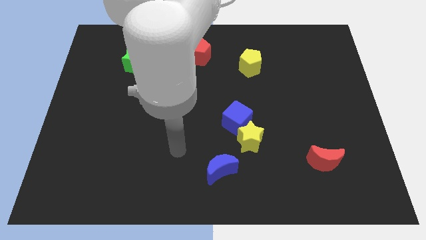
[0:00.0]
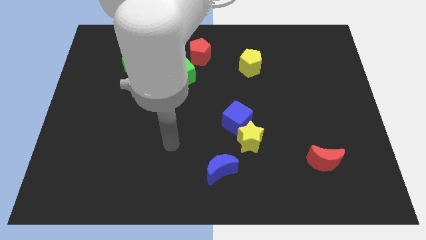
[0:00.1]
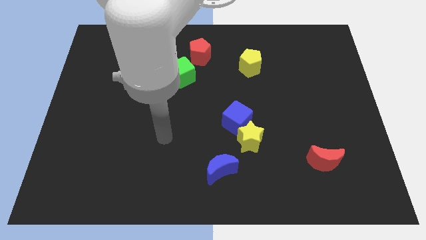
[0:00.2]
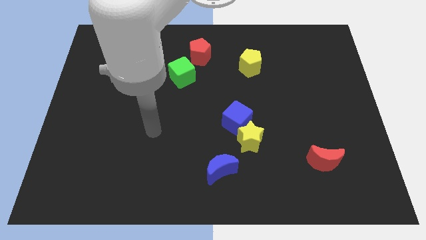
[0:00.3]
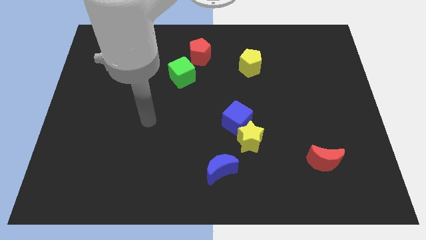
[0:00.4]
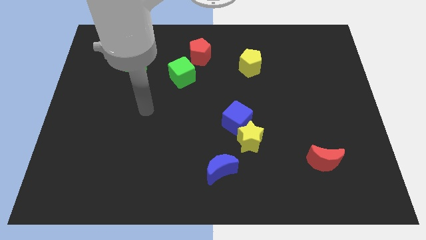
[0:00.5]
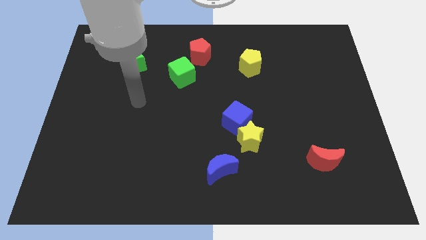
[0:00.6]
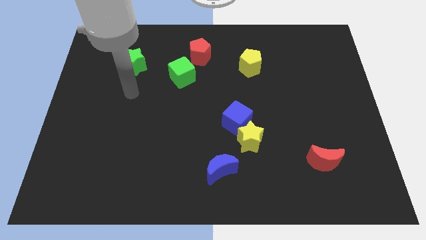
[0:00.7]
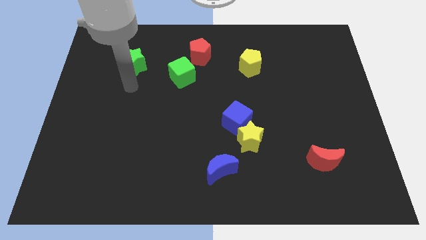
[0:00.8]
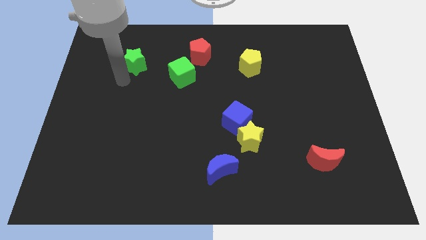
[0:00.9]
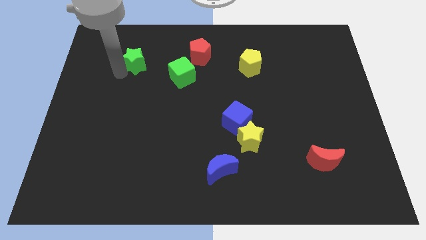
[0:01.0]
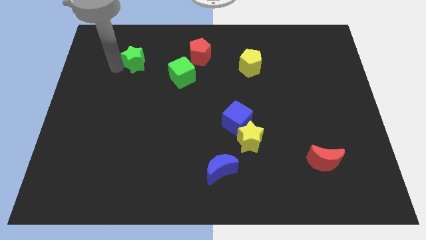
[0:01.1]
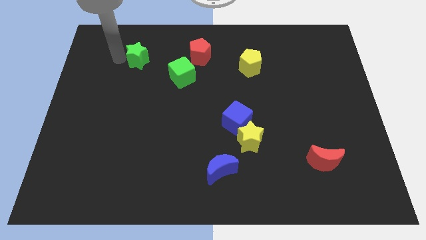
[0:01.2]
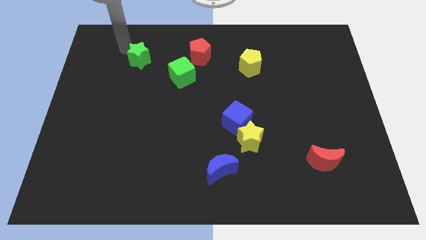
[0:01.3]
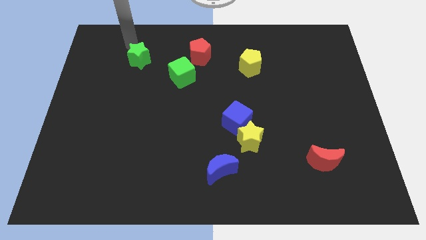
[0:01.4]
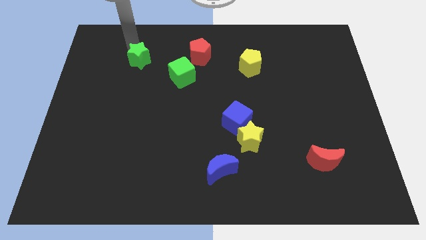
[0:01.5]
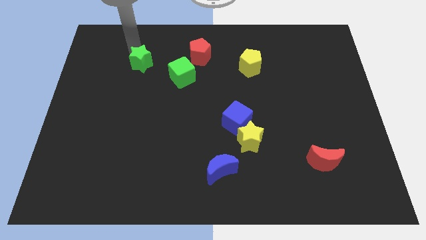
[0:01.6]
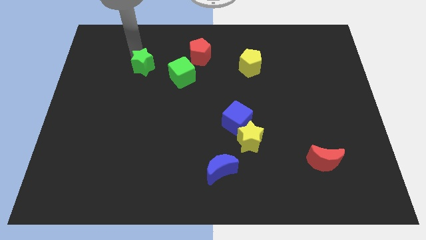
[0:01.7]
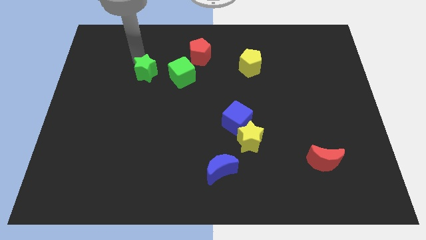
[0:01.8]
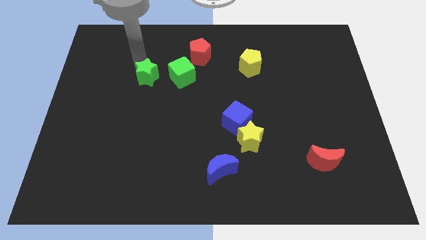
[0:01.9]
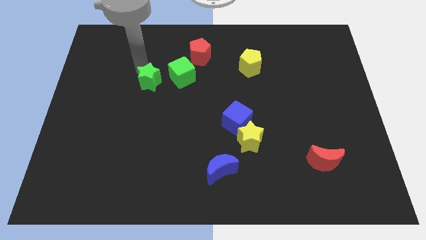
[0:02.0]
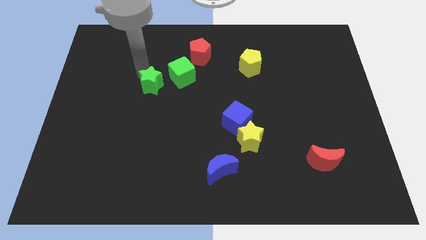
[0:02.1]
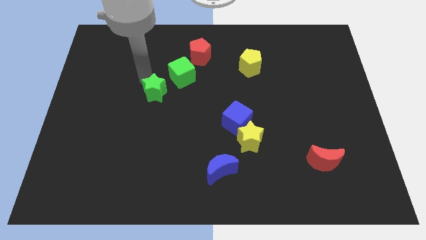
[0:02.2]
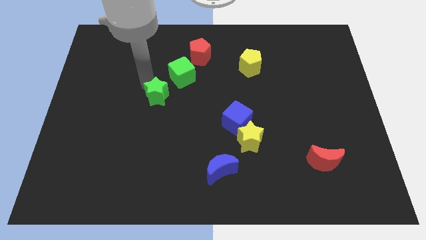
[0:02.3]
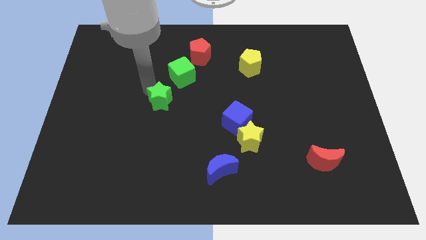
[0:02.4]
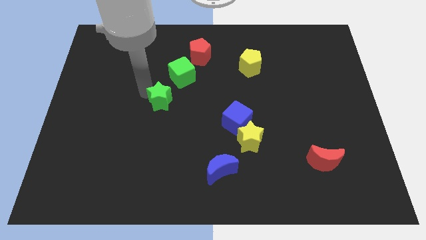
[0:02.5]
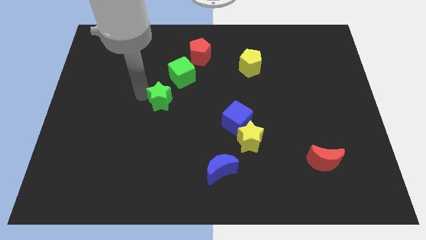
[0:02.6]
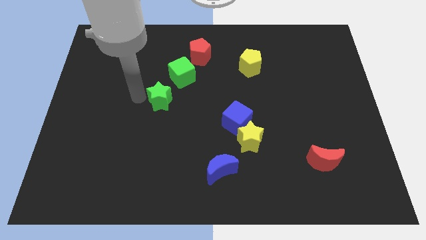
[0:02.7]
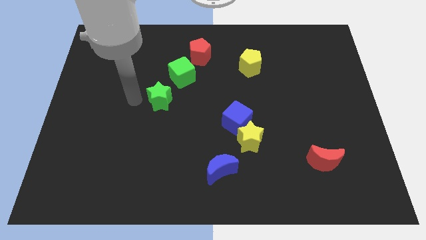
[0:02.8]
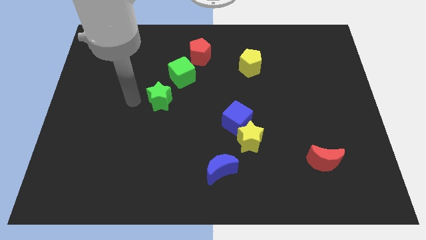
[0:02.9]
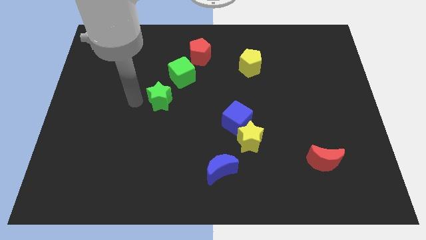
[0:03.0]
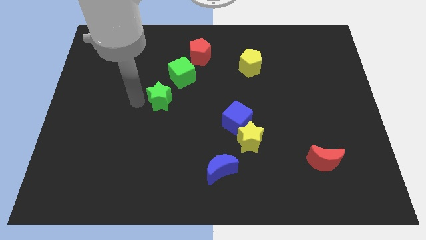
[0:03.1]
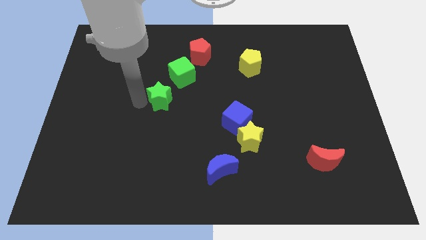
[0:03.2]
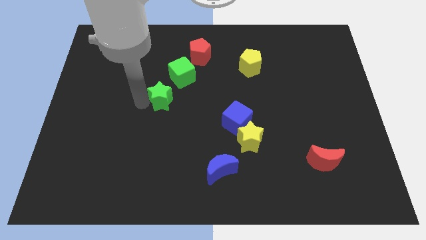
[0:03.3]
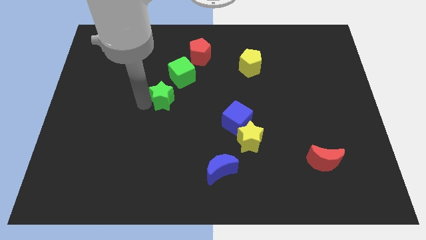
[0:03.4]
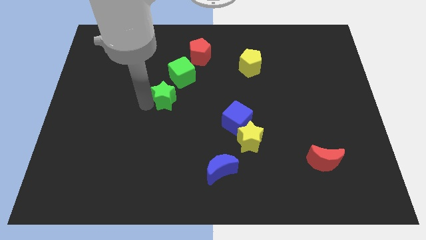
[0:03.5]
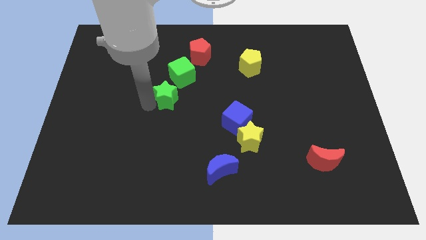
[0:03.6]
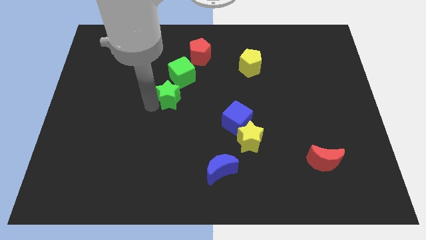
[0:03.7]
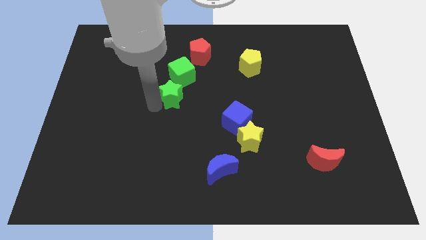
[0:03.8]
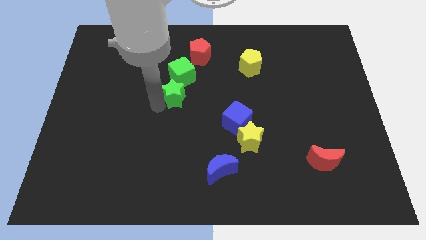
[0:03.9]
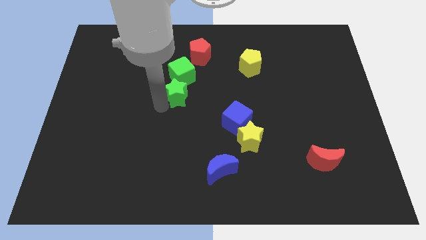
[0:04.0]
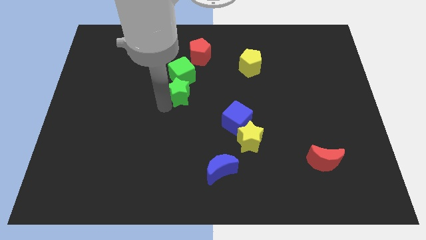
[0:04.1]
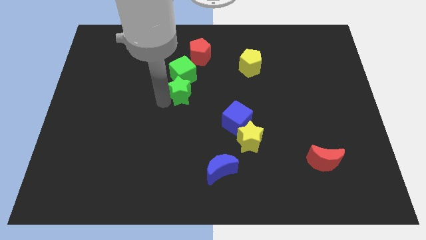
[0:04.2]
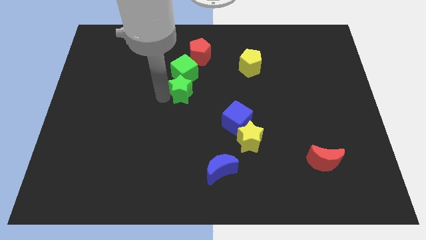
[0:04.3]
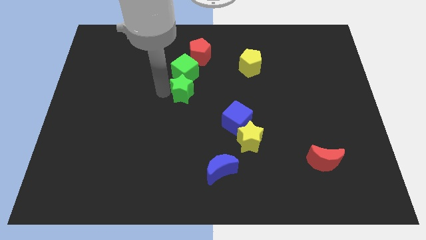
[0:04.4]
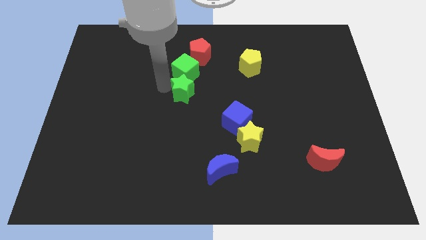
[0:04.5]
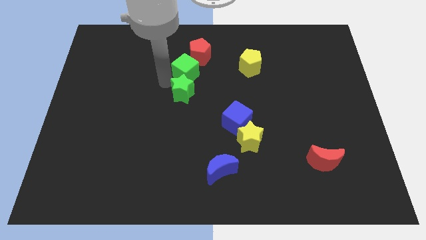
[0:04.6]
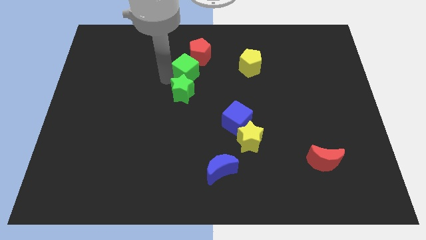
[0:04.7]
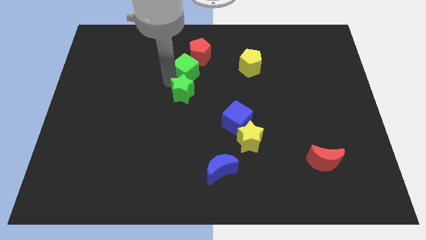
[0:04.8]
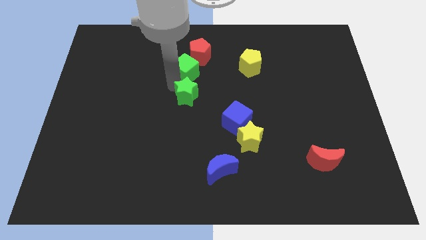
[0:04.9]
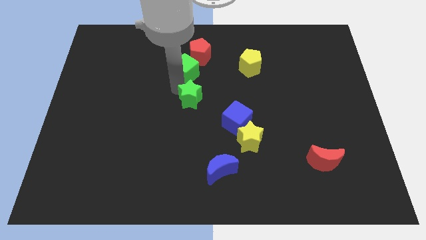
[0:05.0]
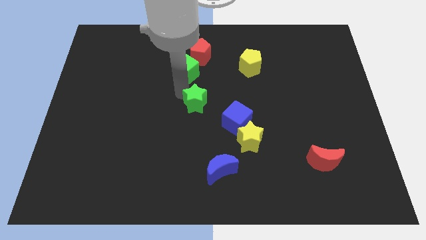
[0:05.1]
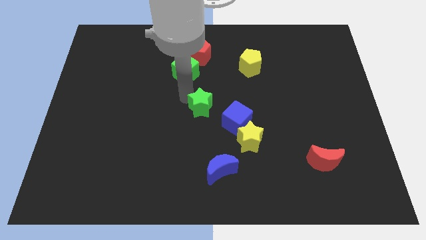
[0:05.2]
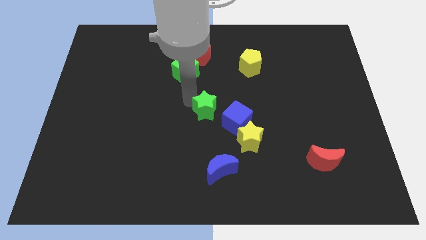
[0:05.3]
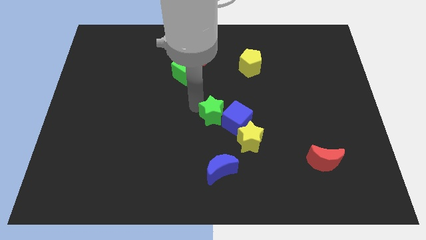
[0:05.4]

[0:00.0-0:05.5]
slide the green star towards the blue cube

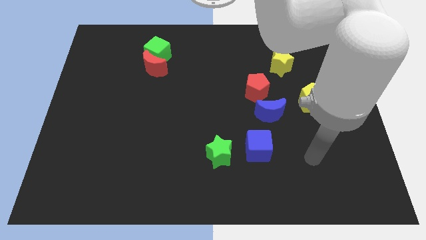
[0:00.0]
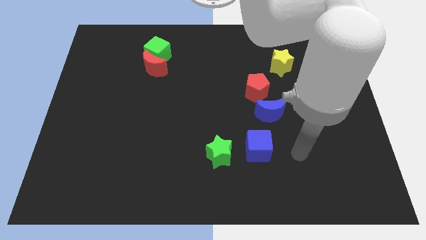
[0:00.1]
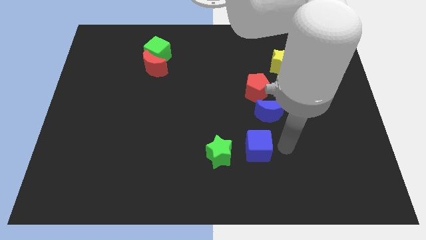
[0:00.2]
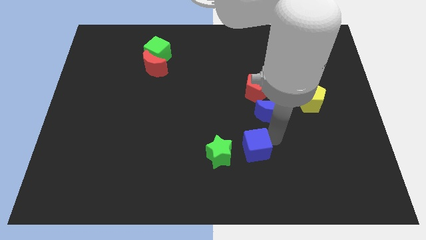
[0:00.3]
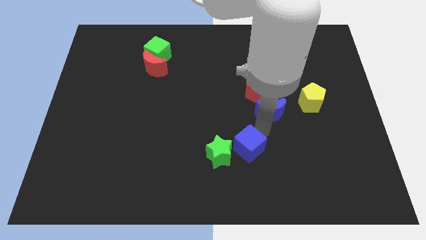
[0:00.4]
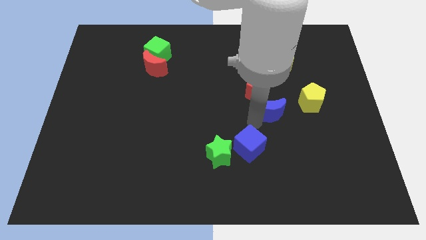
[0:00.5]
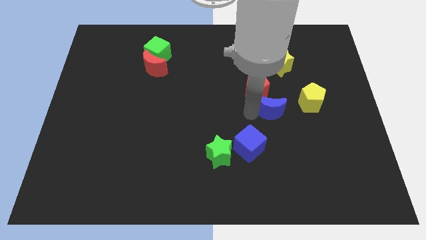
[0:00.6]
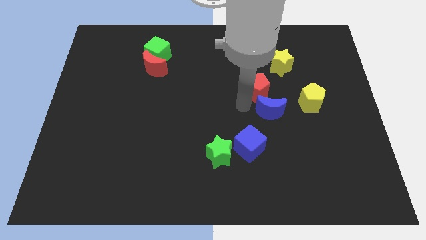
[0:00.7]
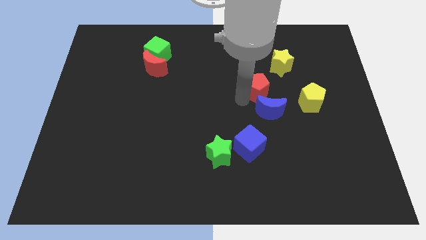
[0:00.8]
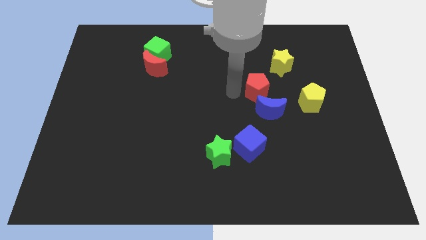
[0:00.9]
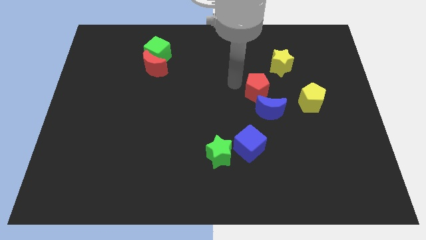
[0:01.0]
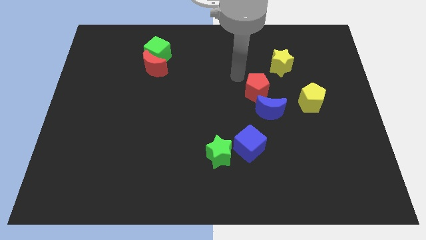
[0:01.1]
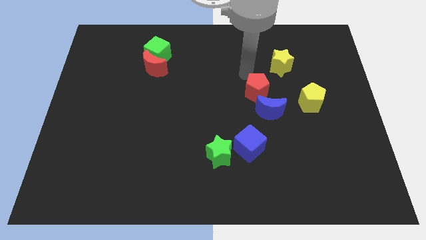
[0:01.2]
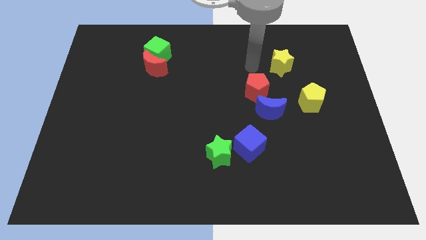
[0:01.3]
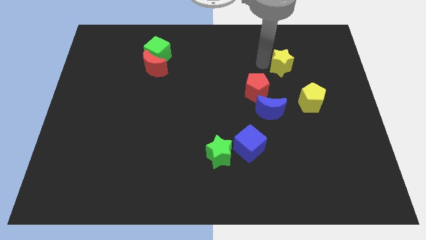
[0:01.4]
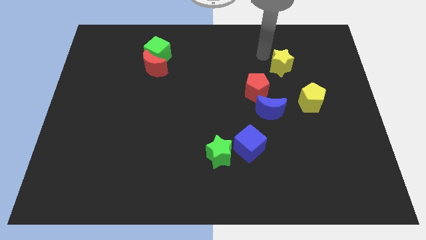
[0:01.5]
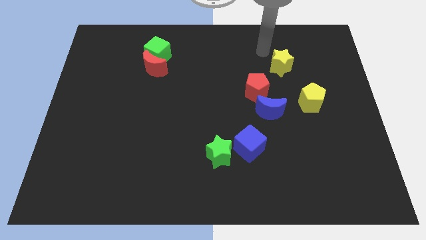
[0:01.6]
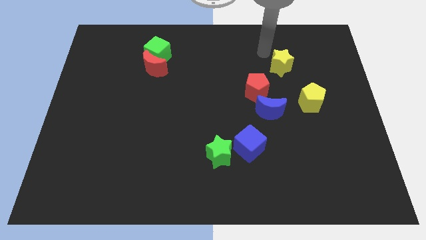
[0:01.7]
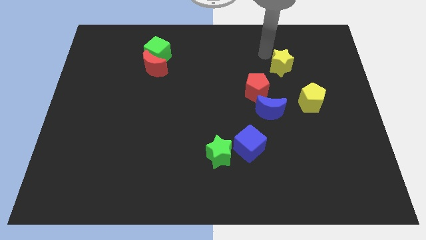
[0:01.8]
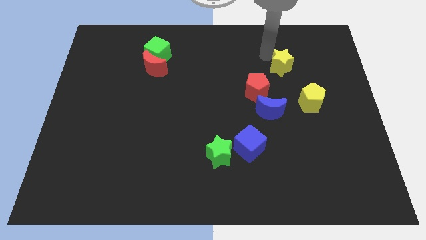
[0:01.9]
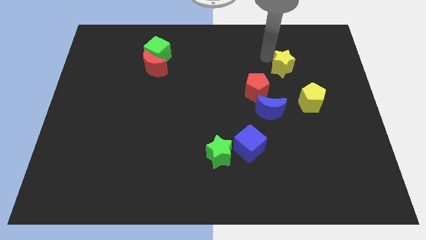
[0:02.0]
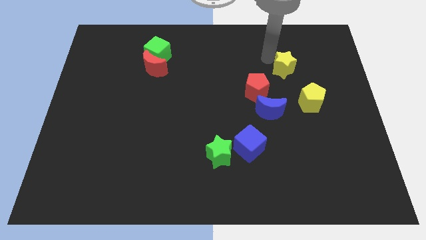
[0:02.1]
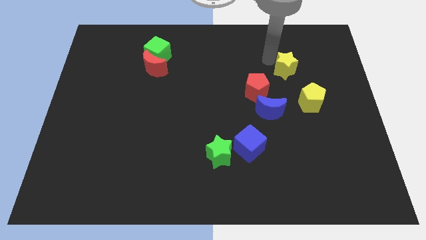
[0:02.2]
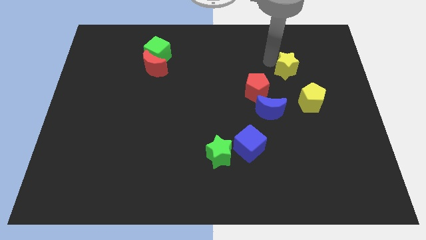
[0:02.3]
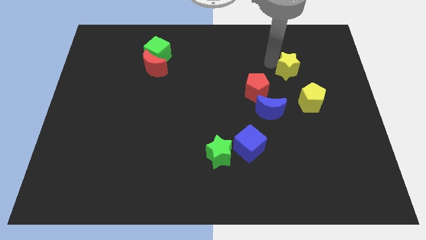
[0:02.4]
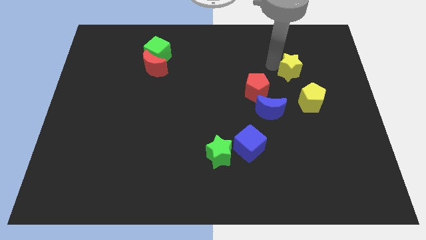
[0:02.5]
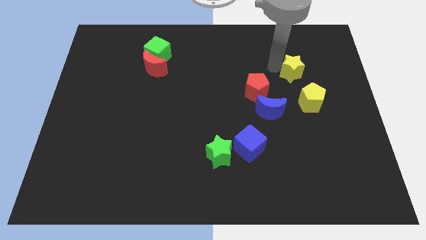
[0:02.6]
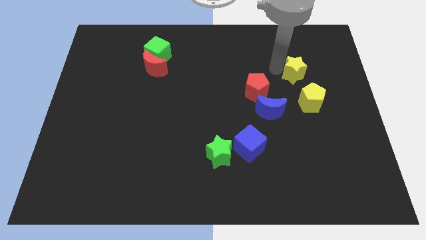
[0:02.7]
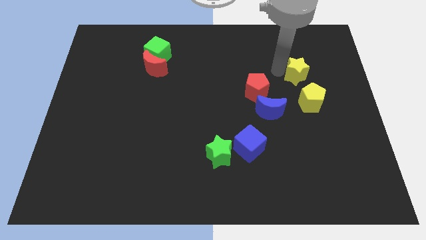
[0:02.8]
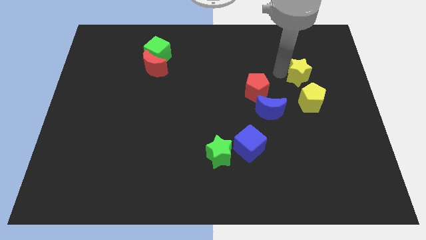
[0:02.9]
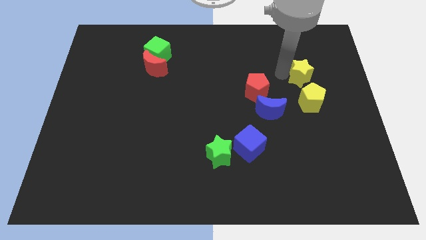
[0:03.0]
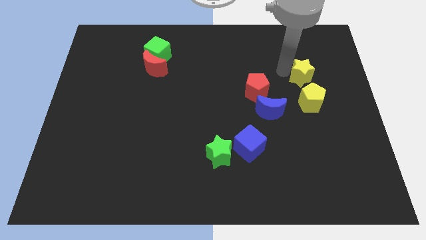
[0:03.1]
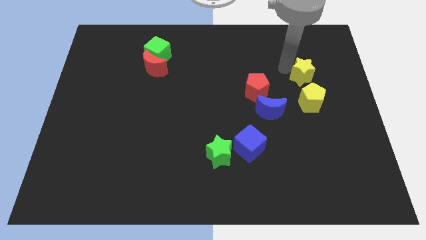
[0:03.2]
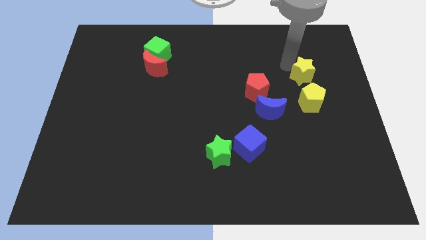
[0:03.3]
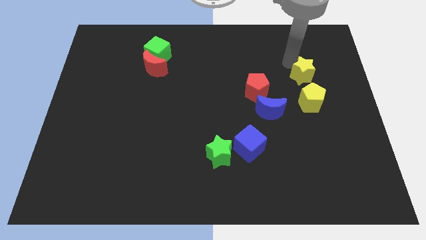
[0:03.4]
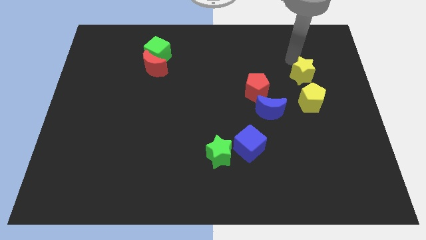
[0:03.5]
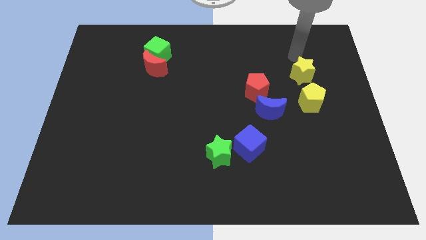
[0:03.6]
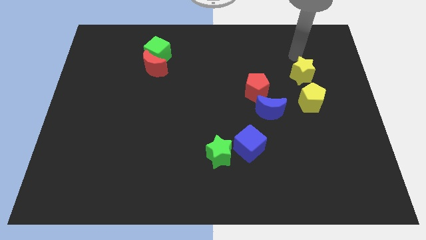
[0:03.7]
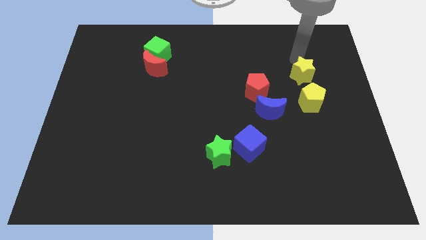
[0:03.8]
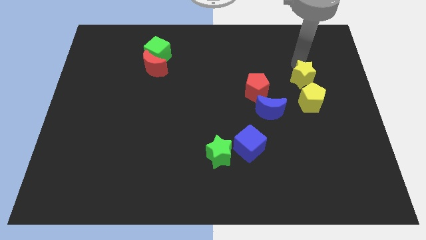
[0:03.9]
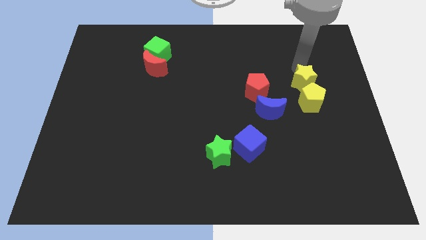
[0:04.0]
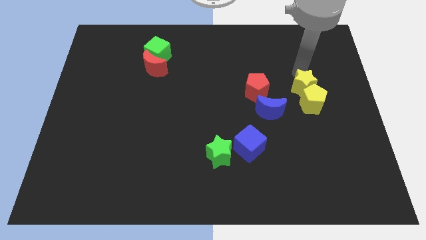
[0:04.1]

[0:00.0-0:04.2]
move the yellow star next to the yellow pentagon
